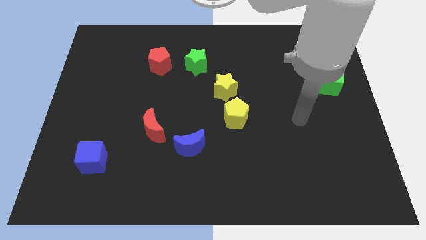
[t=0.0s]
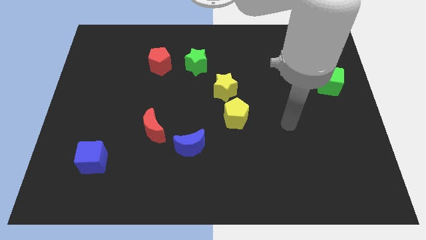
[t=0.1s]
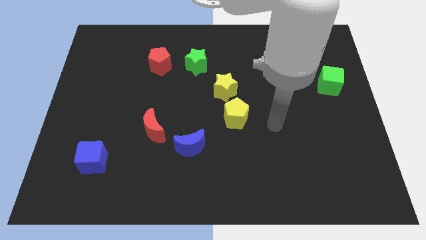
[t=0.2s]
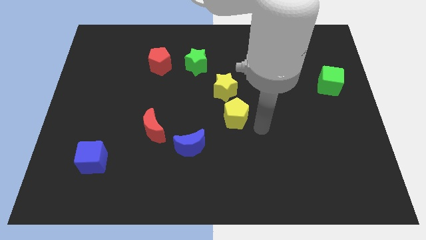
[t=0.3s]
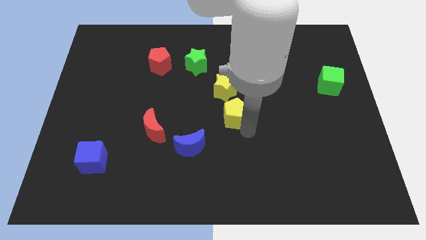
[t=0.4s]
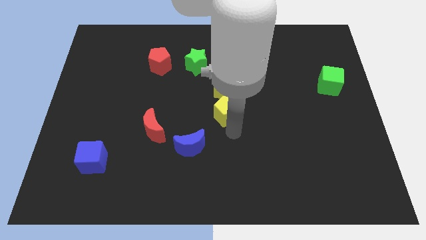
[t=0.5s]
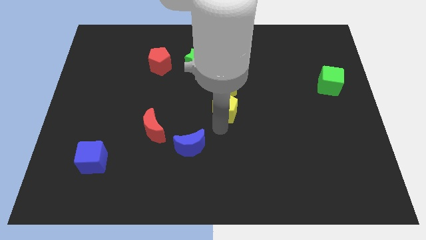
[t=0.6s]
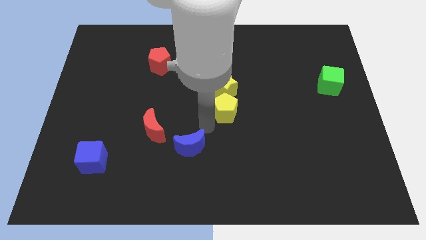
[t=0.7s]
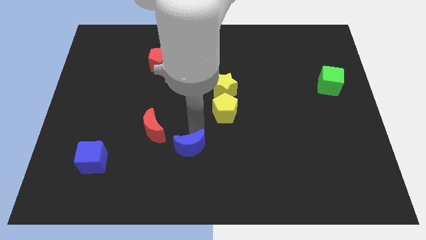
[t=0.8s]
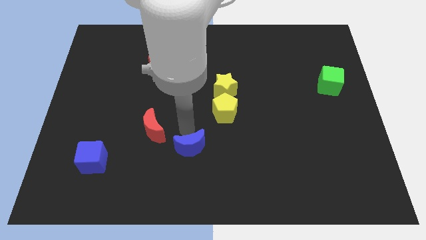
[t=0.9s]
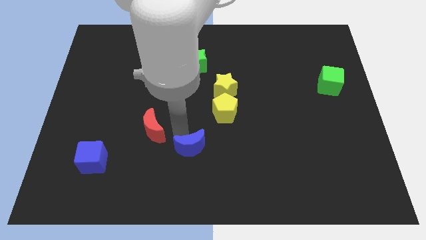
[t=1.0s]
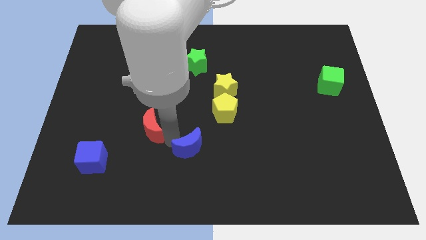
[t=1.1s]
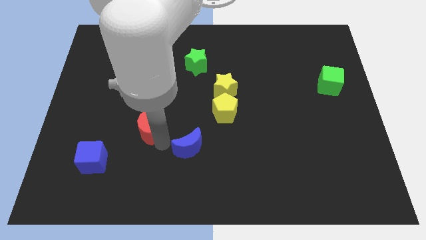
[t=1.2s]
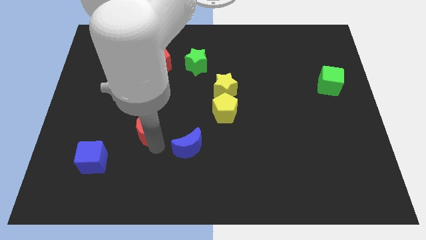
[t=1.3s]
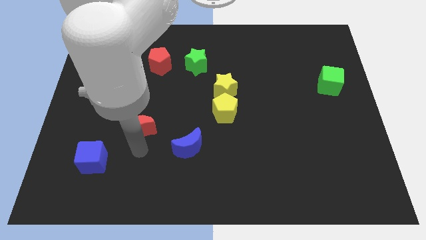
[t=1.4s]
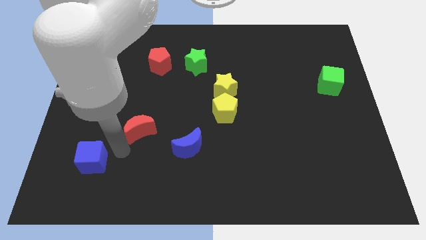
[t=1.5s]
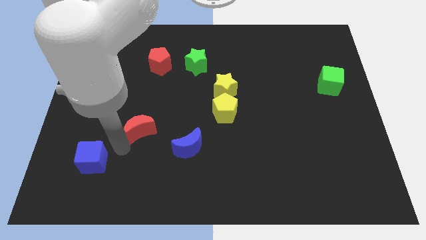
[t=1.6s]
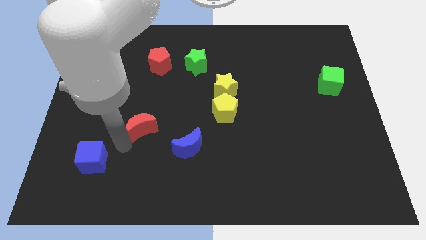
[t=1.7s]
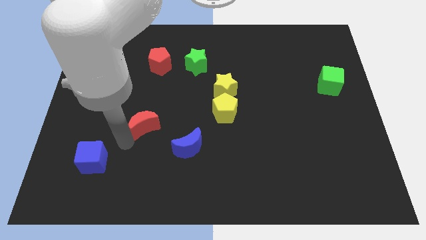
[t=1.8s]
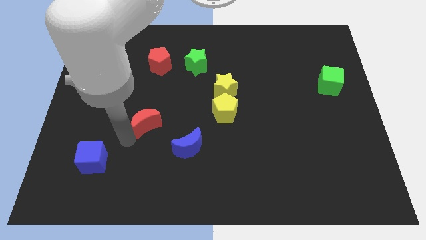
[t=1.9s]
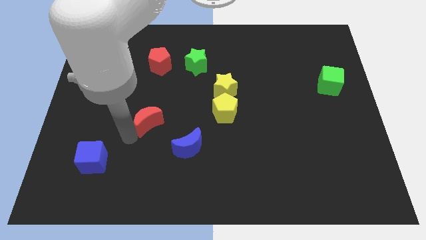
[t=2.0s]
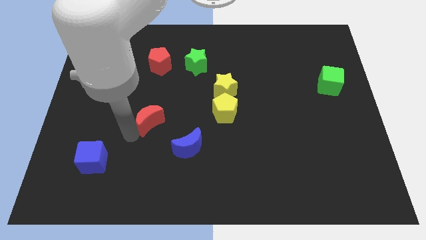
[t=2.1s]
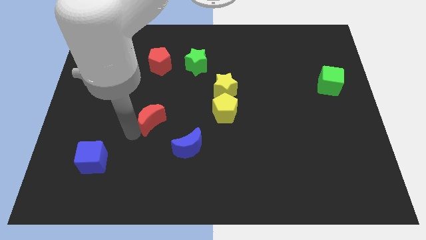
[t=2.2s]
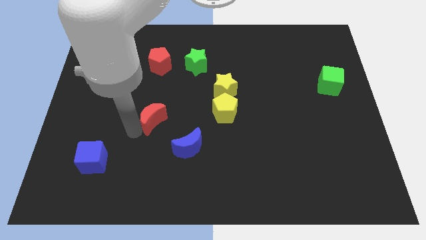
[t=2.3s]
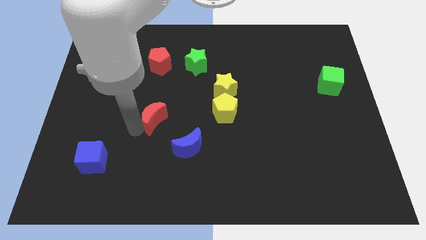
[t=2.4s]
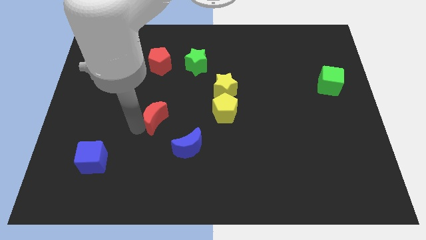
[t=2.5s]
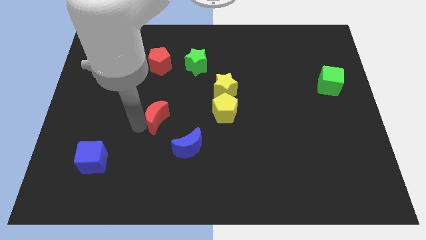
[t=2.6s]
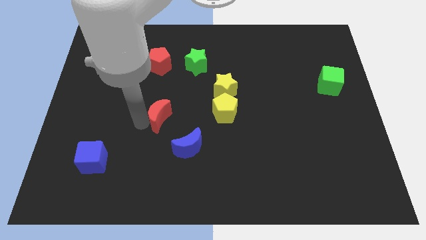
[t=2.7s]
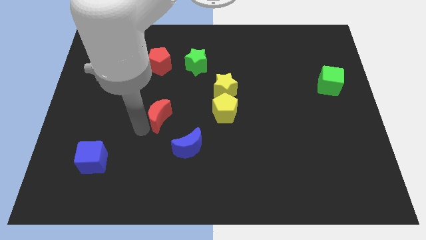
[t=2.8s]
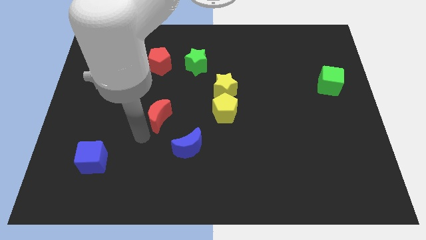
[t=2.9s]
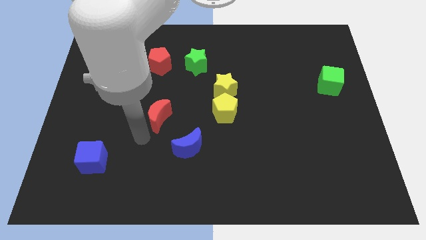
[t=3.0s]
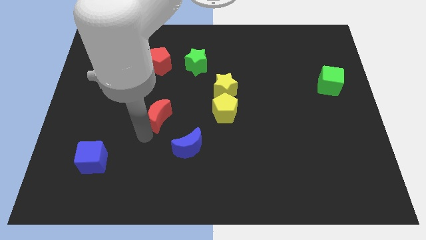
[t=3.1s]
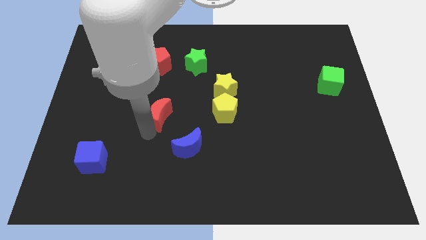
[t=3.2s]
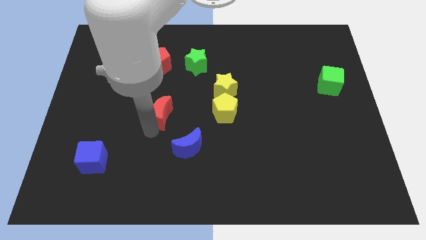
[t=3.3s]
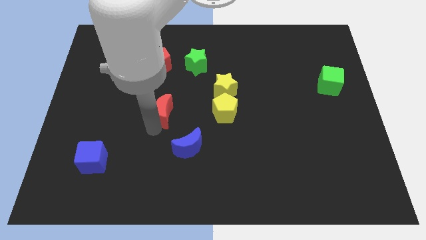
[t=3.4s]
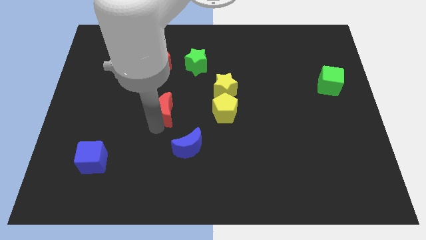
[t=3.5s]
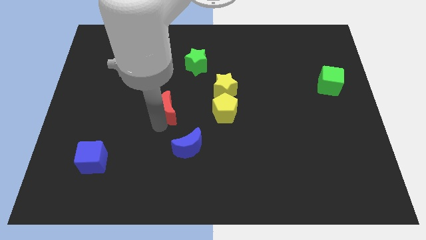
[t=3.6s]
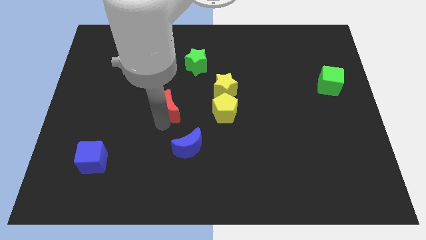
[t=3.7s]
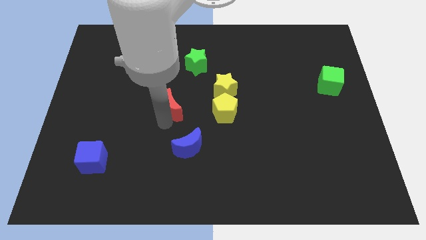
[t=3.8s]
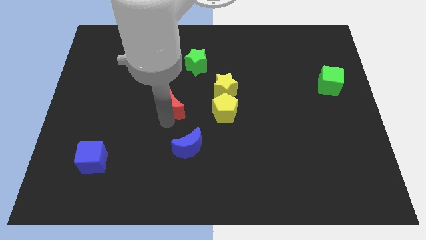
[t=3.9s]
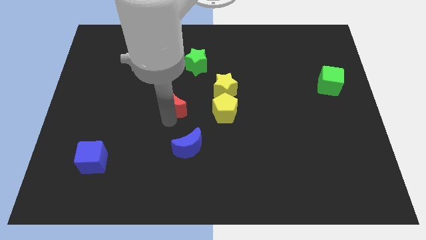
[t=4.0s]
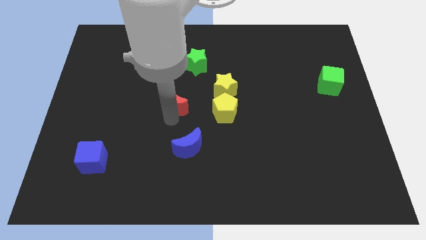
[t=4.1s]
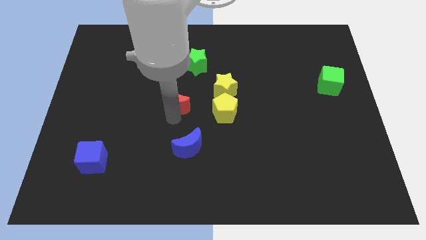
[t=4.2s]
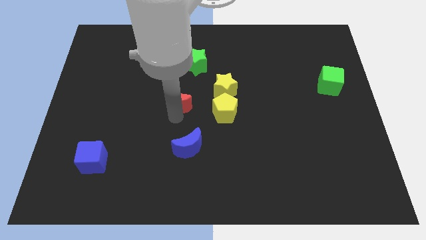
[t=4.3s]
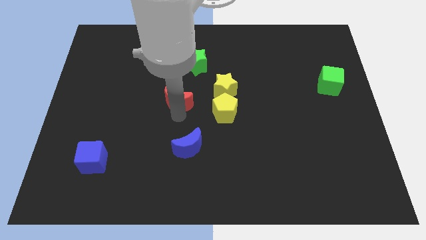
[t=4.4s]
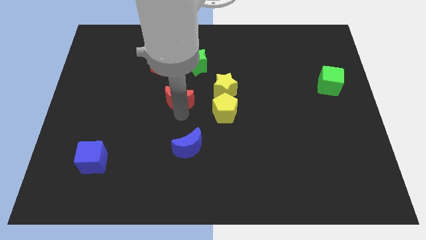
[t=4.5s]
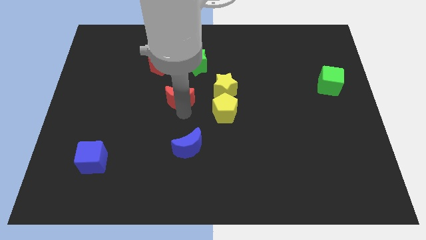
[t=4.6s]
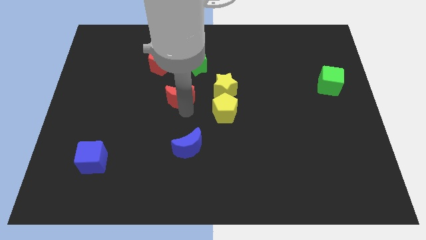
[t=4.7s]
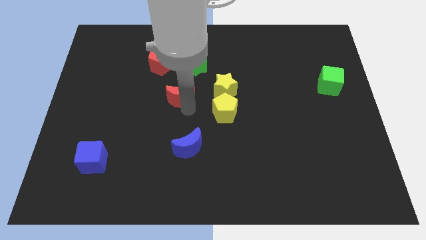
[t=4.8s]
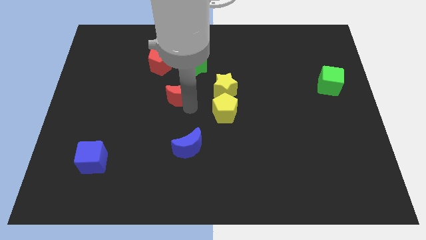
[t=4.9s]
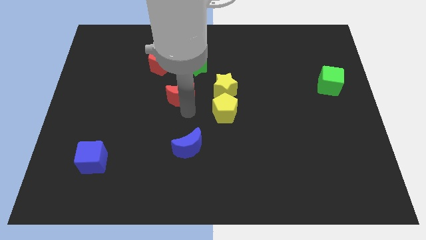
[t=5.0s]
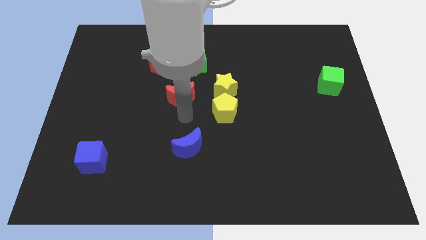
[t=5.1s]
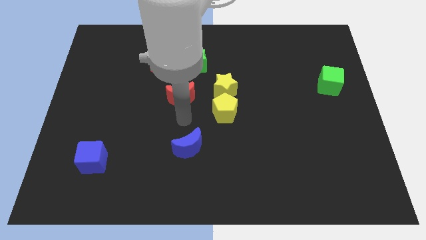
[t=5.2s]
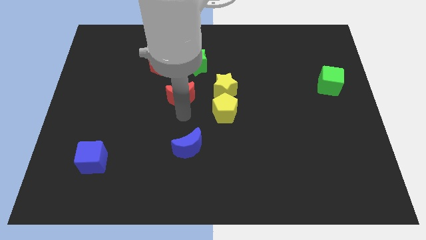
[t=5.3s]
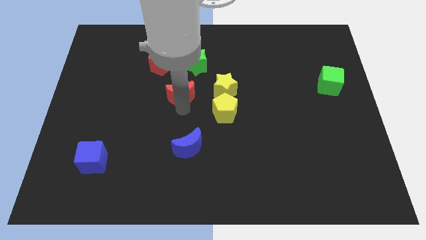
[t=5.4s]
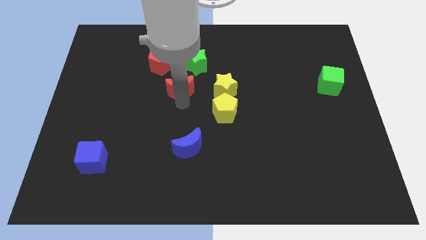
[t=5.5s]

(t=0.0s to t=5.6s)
slide the red moon diagonally down and to the right of the red pentagon

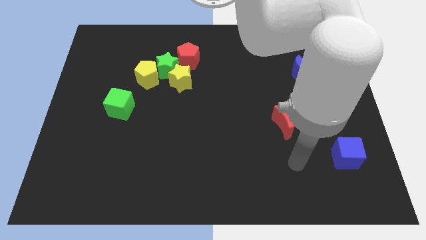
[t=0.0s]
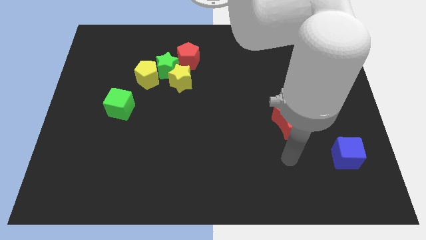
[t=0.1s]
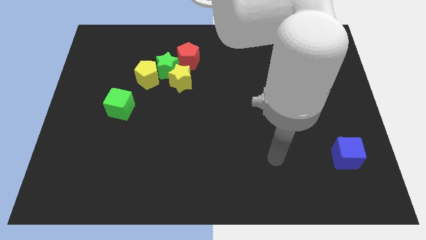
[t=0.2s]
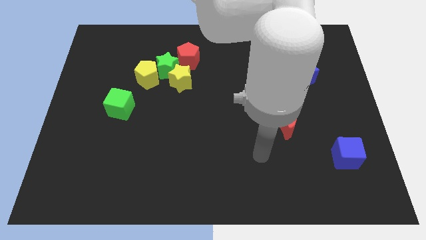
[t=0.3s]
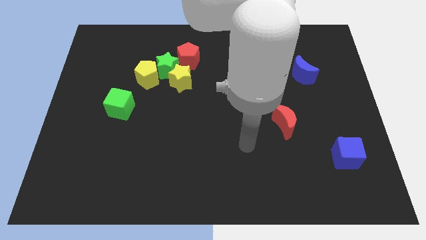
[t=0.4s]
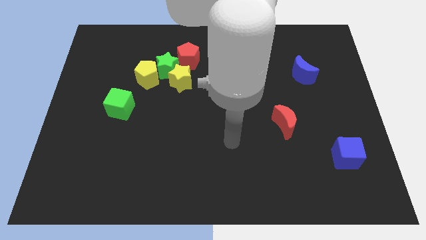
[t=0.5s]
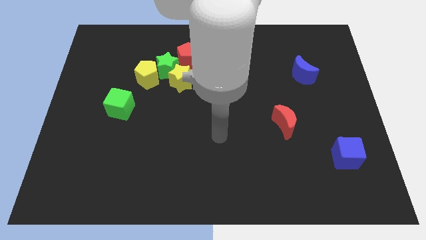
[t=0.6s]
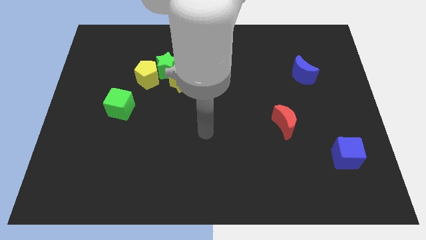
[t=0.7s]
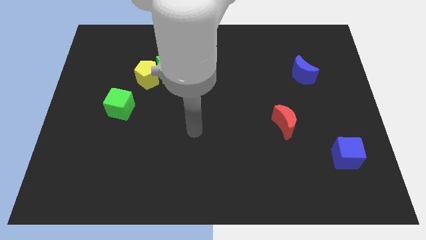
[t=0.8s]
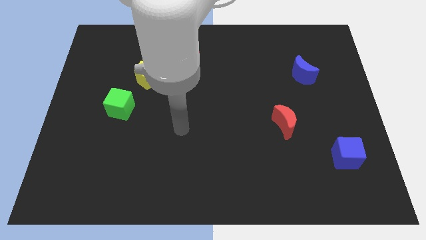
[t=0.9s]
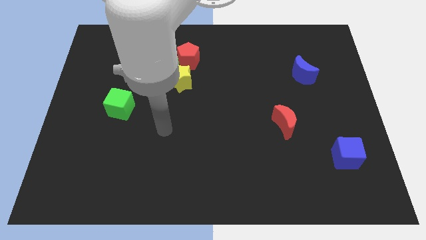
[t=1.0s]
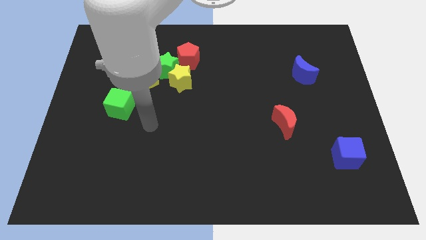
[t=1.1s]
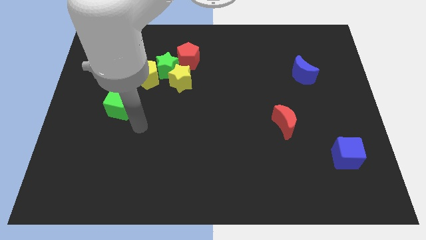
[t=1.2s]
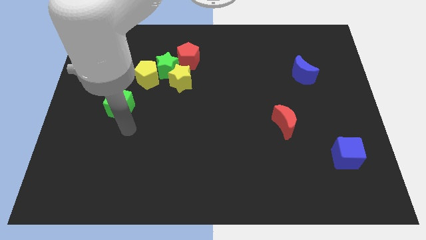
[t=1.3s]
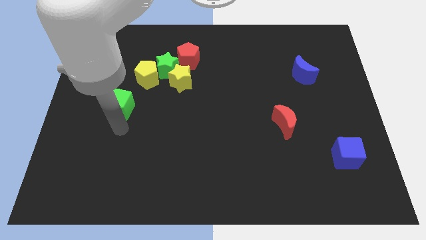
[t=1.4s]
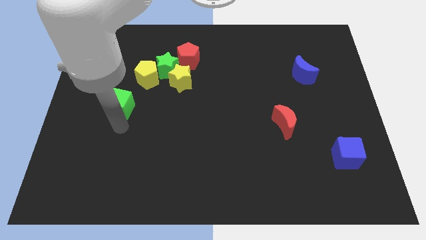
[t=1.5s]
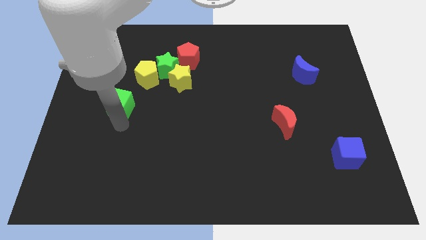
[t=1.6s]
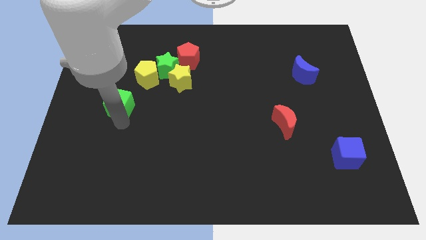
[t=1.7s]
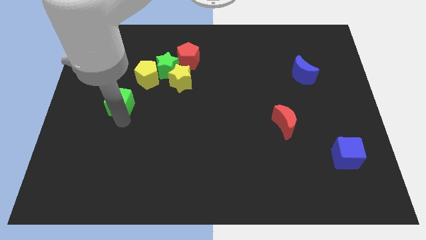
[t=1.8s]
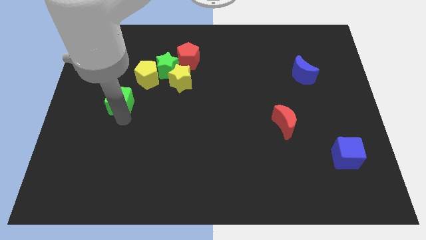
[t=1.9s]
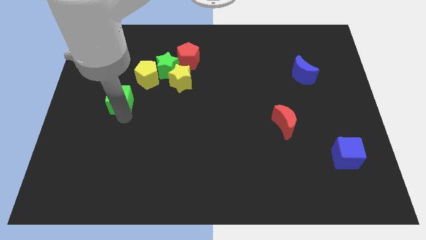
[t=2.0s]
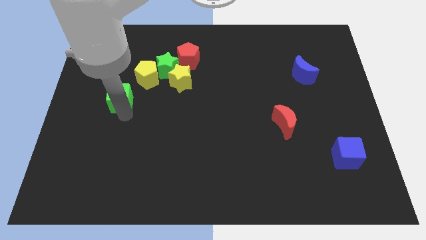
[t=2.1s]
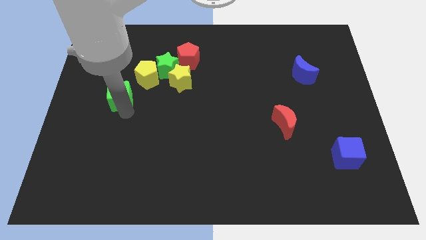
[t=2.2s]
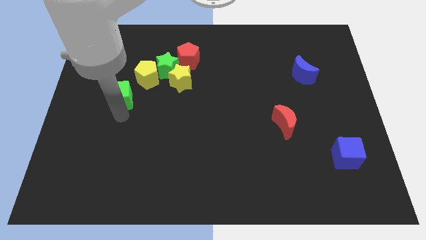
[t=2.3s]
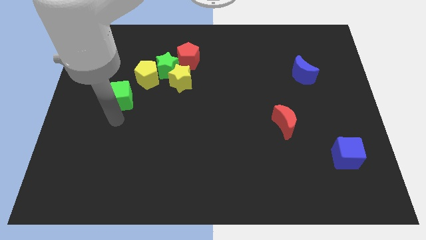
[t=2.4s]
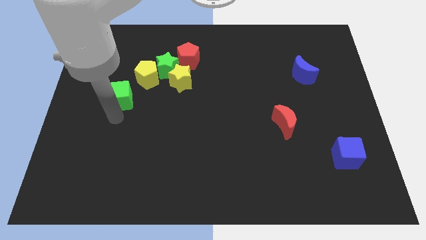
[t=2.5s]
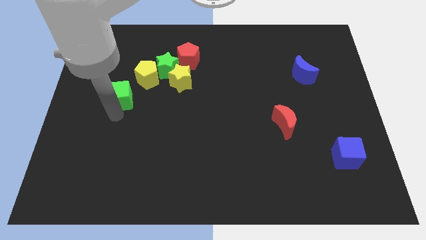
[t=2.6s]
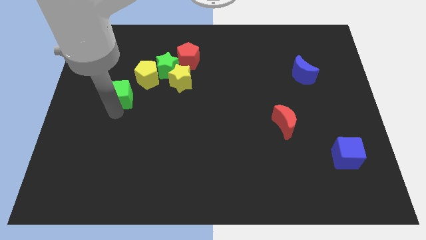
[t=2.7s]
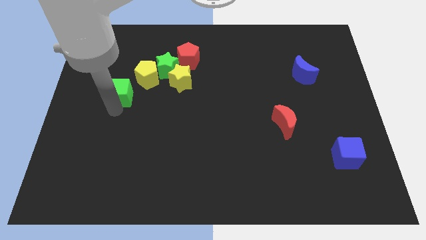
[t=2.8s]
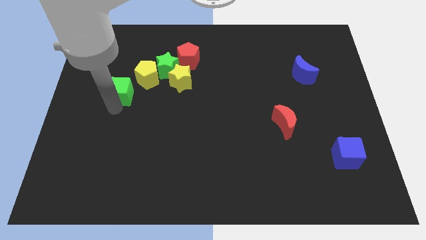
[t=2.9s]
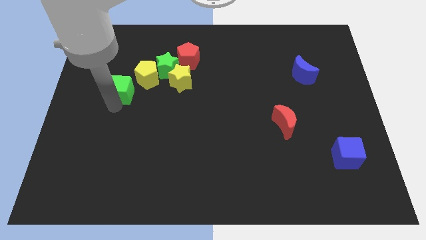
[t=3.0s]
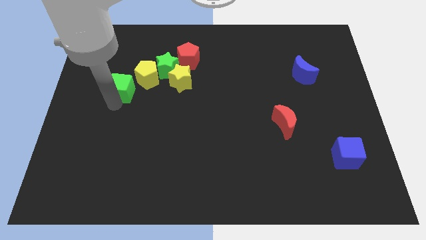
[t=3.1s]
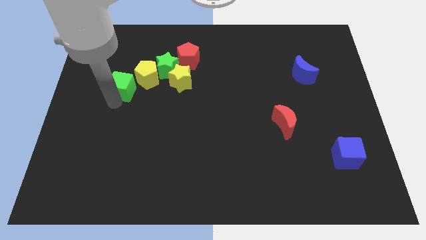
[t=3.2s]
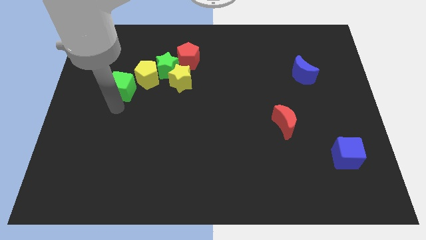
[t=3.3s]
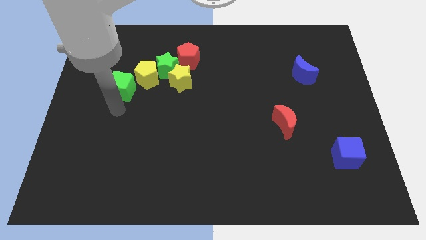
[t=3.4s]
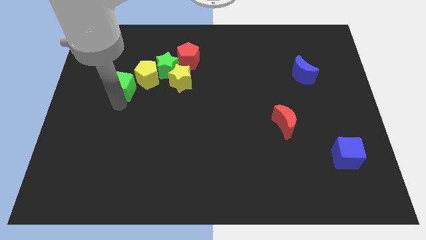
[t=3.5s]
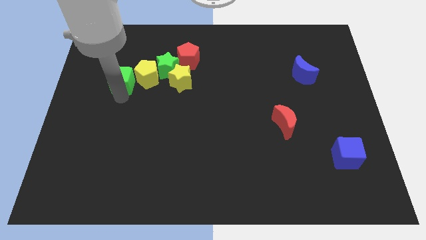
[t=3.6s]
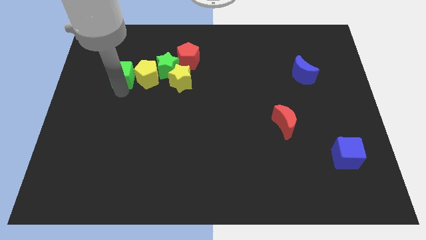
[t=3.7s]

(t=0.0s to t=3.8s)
push the green cube to the top left of the yellow pentagon
